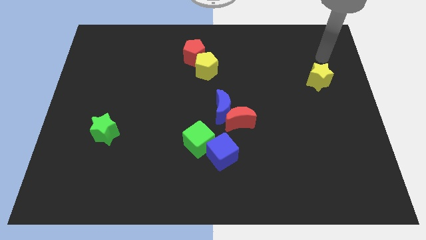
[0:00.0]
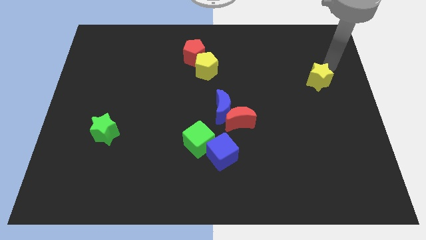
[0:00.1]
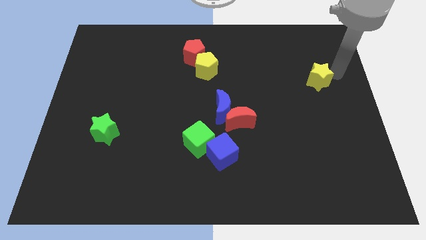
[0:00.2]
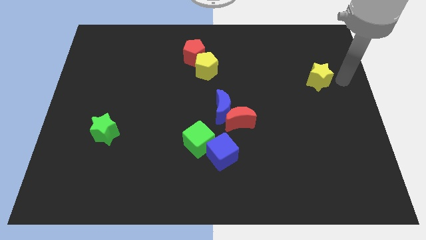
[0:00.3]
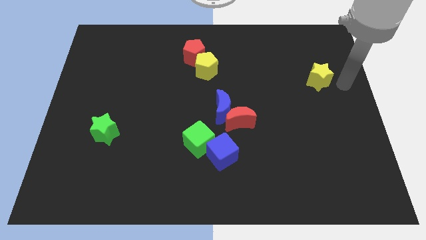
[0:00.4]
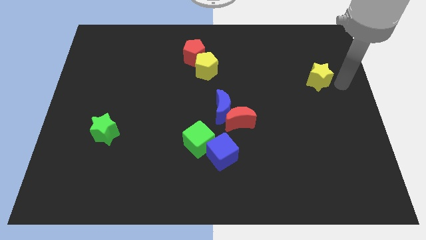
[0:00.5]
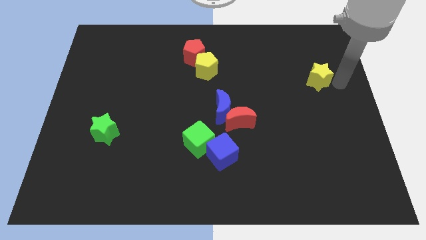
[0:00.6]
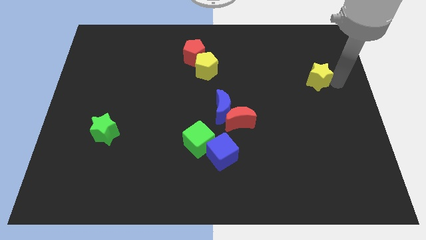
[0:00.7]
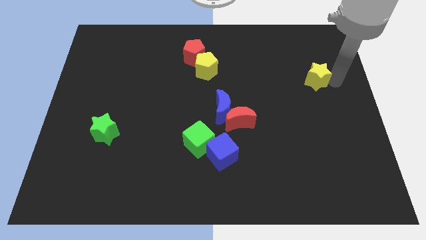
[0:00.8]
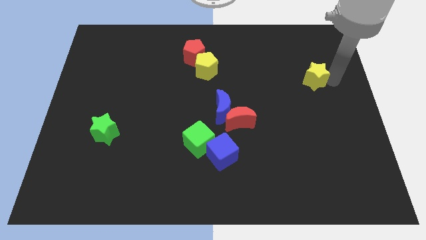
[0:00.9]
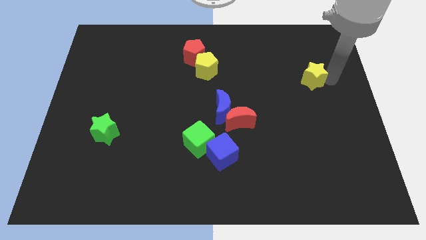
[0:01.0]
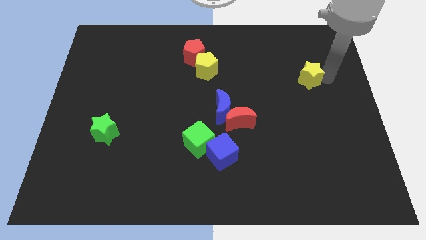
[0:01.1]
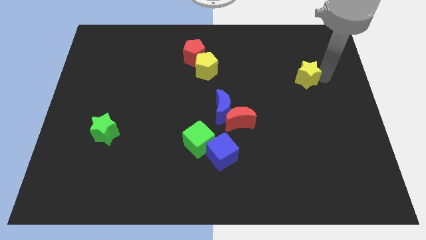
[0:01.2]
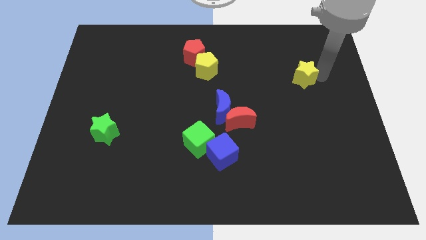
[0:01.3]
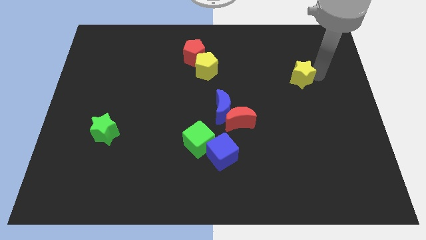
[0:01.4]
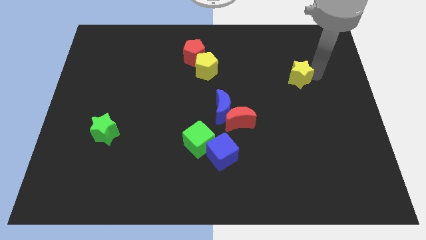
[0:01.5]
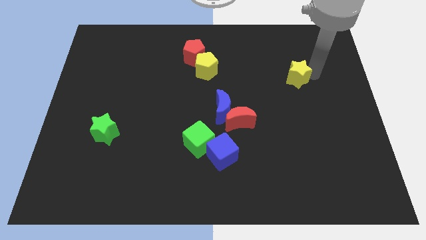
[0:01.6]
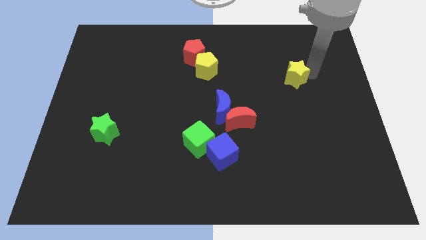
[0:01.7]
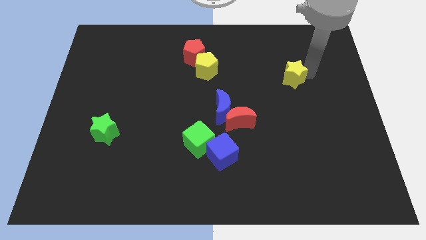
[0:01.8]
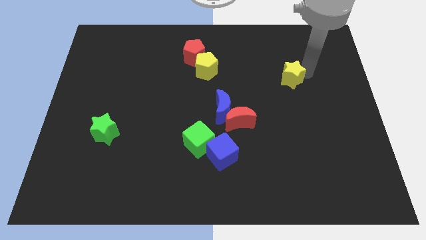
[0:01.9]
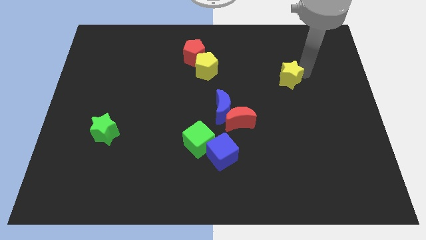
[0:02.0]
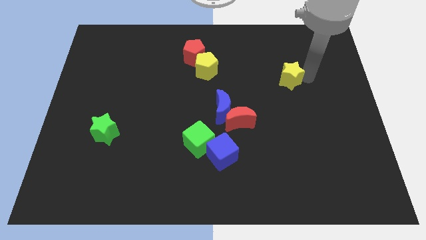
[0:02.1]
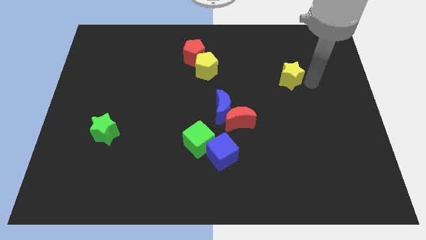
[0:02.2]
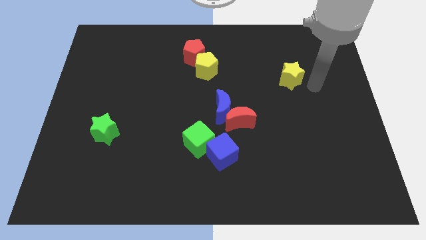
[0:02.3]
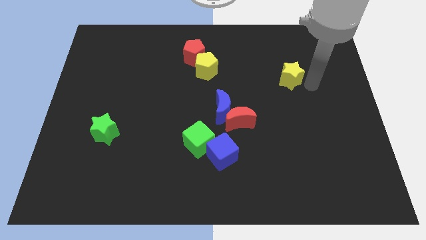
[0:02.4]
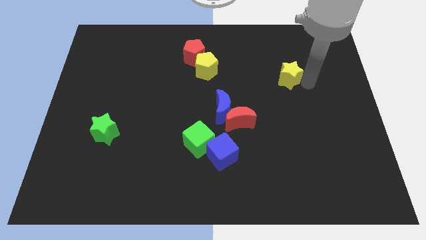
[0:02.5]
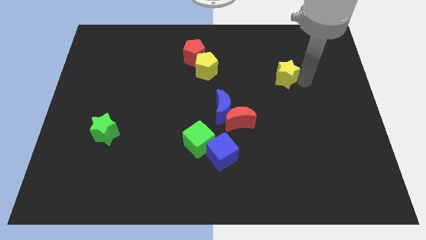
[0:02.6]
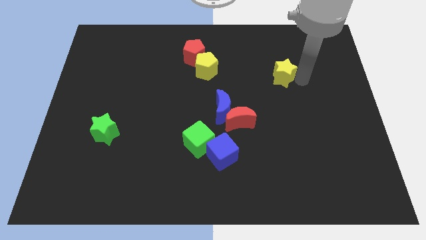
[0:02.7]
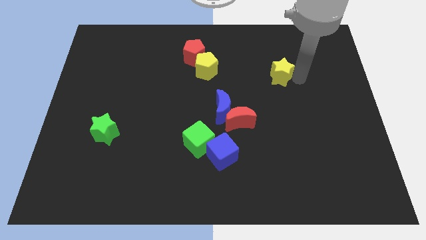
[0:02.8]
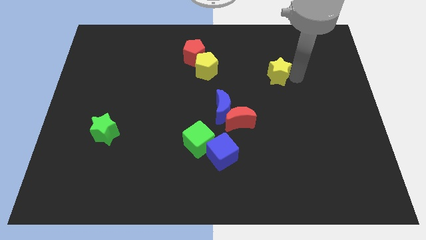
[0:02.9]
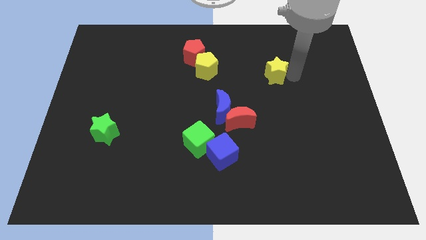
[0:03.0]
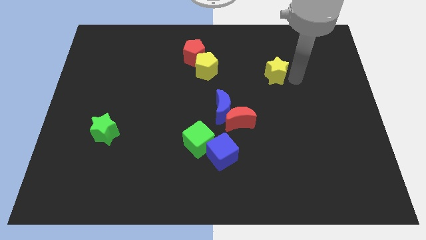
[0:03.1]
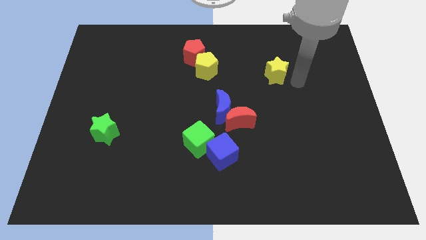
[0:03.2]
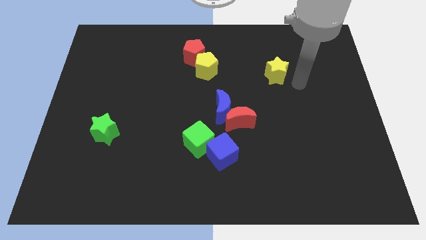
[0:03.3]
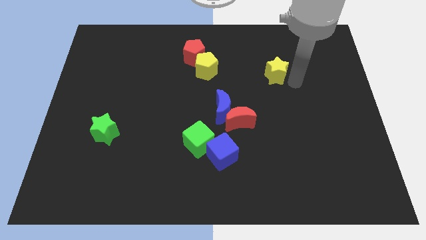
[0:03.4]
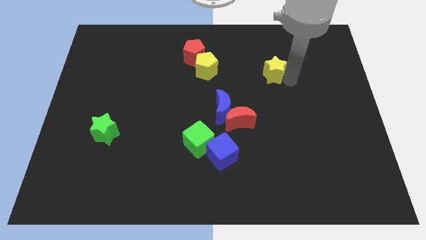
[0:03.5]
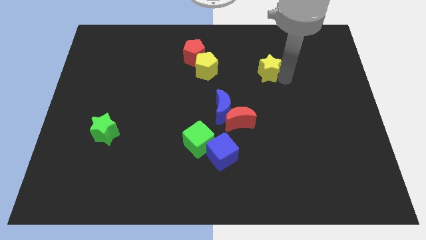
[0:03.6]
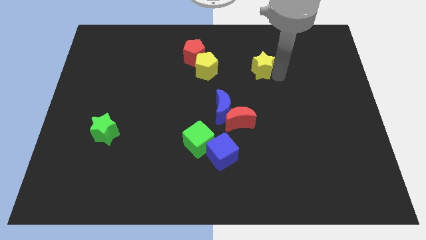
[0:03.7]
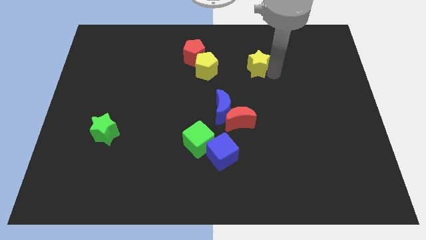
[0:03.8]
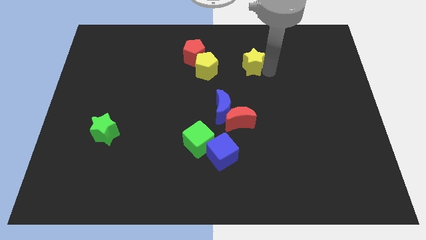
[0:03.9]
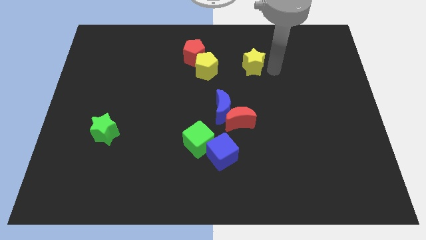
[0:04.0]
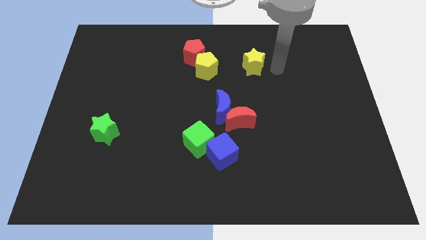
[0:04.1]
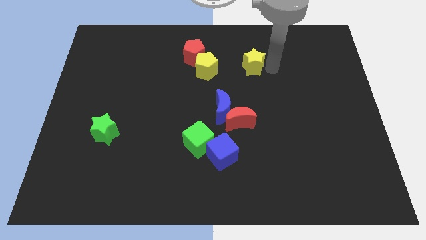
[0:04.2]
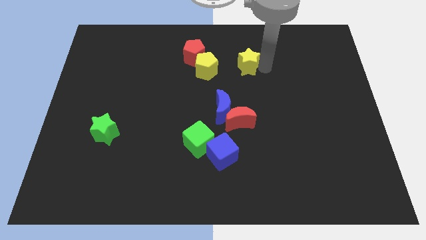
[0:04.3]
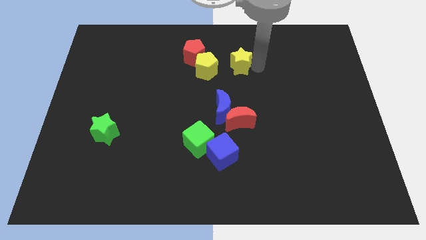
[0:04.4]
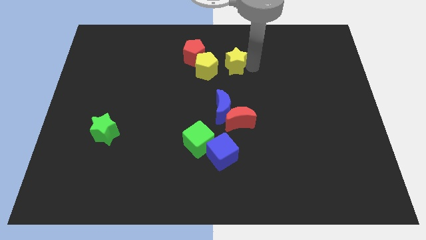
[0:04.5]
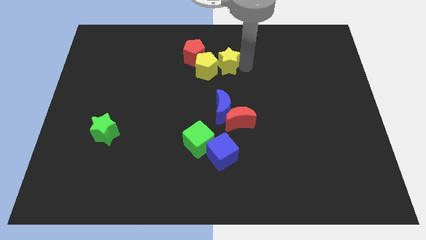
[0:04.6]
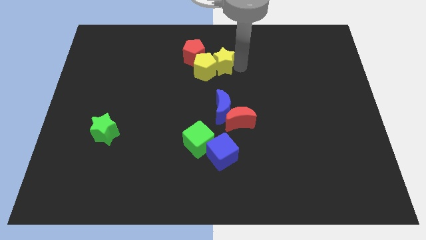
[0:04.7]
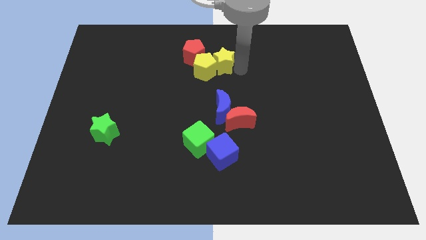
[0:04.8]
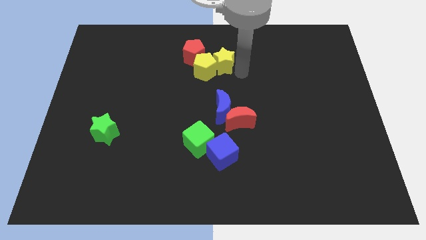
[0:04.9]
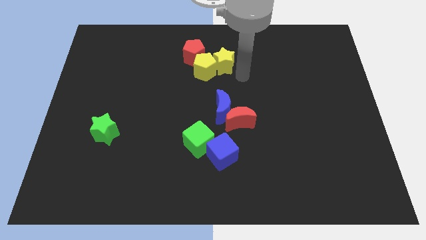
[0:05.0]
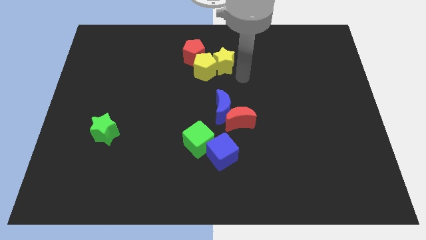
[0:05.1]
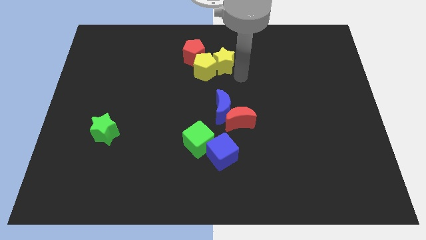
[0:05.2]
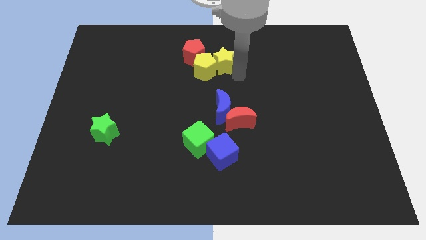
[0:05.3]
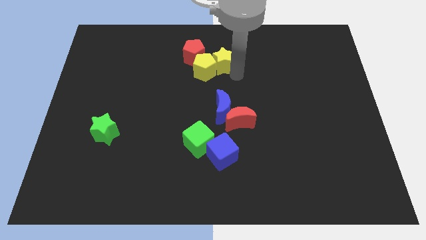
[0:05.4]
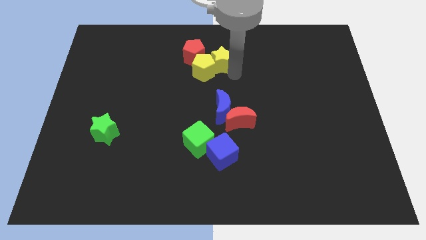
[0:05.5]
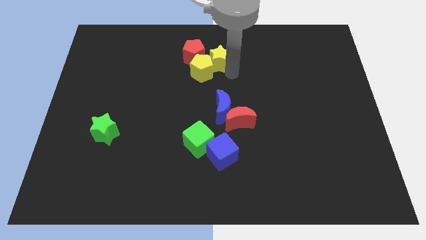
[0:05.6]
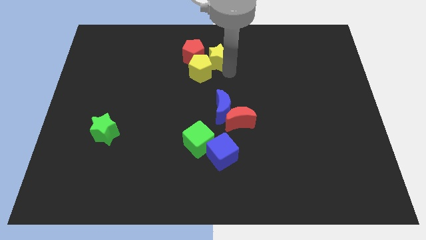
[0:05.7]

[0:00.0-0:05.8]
move the yellow star close to the red pentagon
